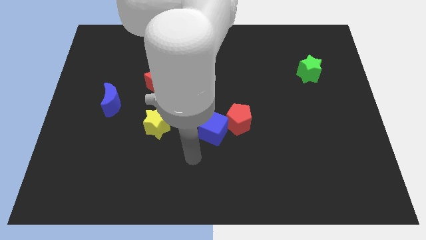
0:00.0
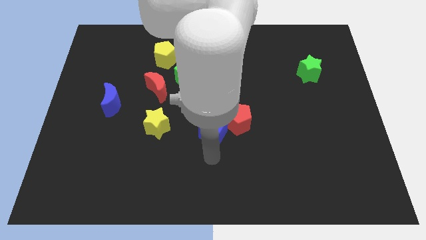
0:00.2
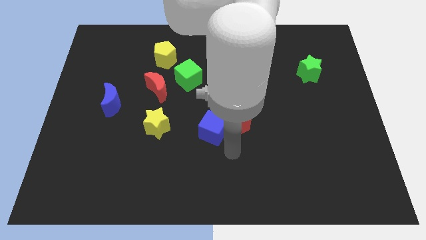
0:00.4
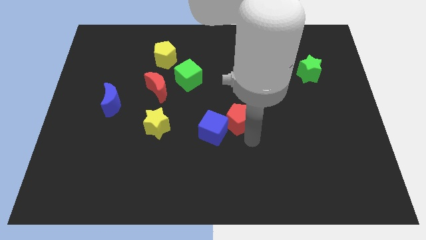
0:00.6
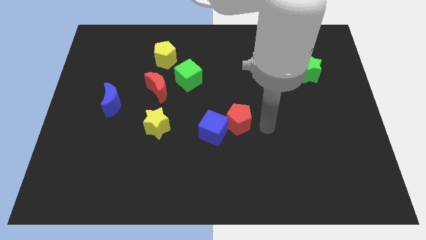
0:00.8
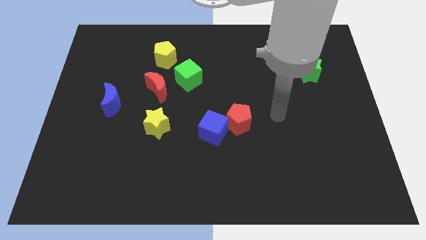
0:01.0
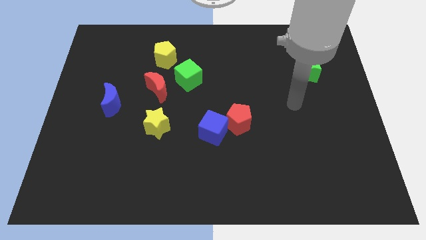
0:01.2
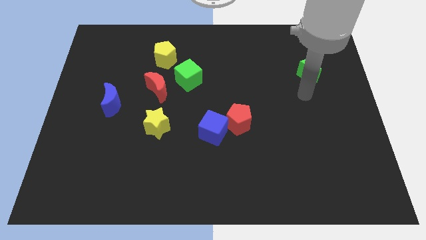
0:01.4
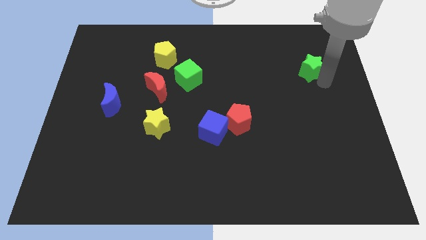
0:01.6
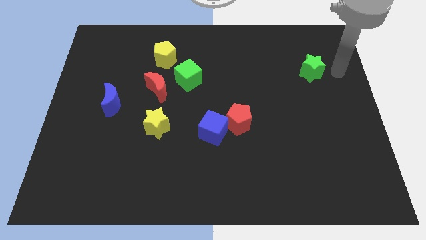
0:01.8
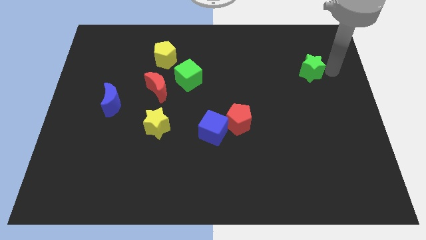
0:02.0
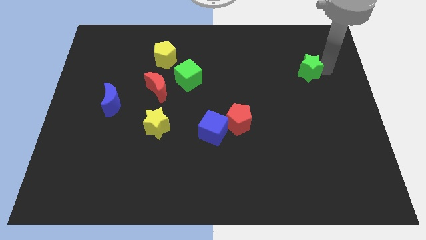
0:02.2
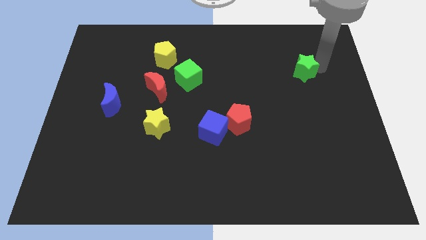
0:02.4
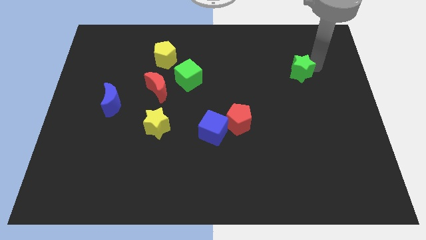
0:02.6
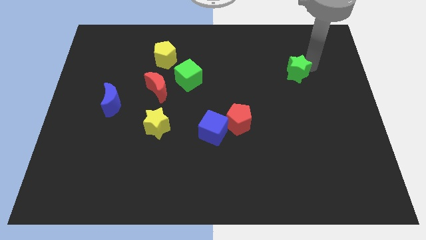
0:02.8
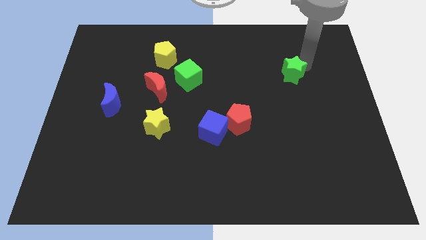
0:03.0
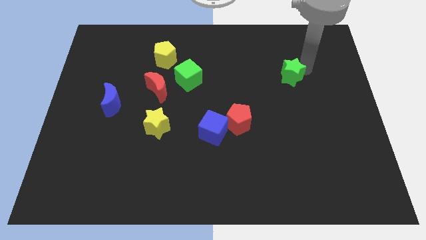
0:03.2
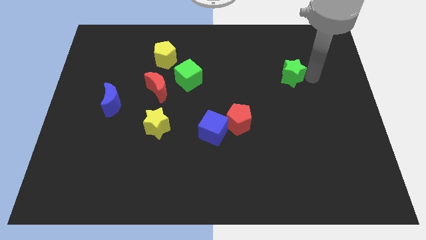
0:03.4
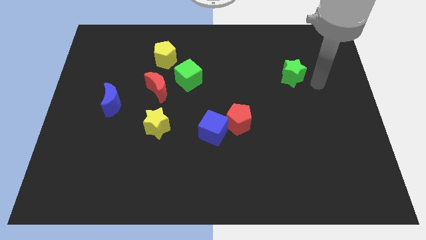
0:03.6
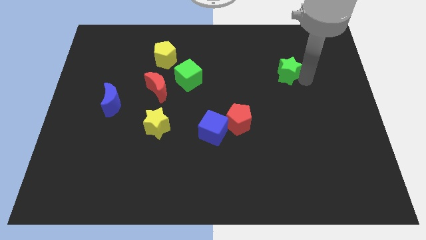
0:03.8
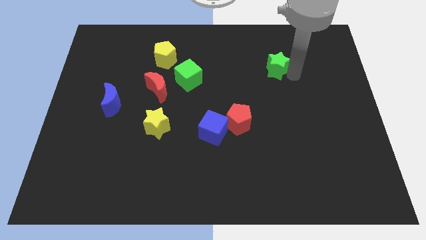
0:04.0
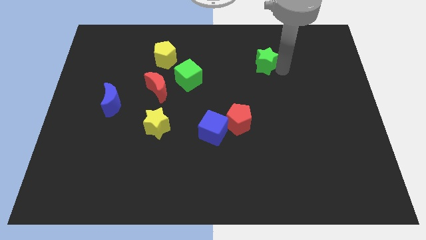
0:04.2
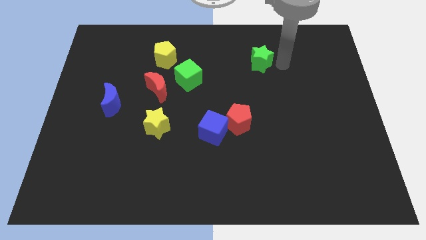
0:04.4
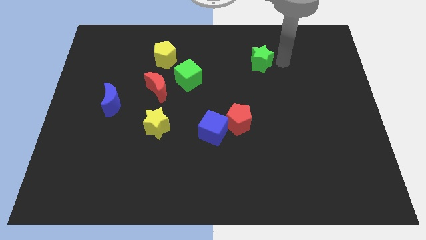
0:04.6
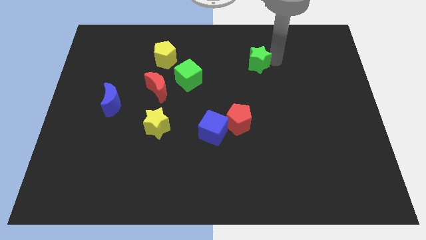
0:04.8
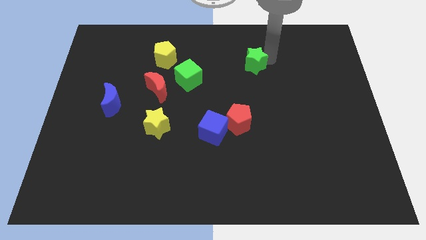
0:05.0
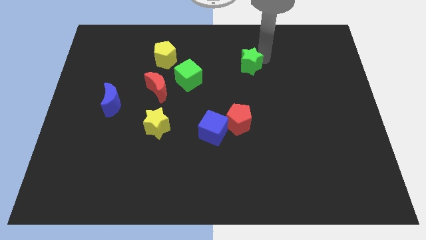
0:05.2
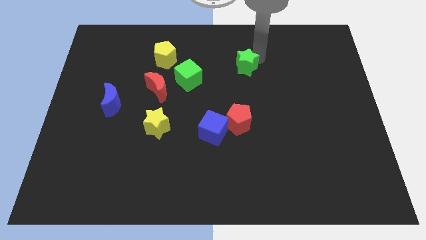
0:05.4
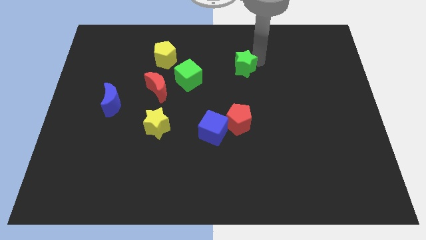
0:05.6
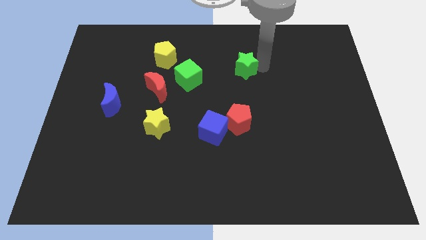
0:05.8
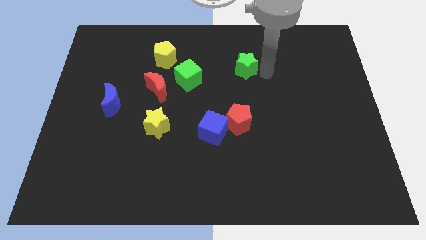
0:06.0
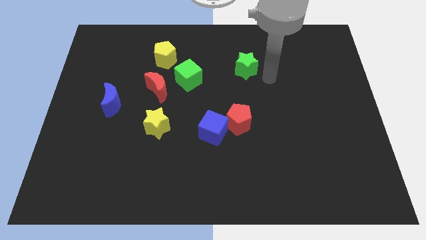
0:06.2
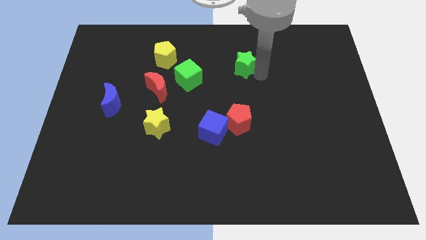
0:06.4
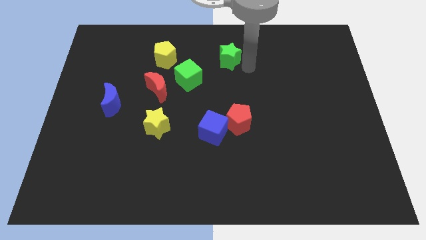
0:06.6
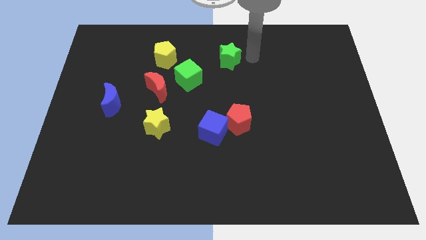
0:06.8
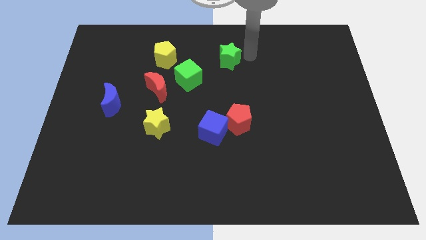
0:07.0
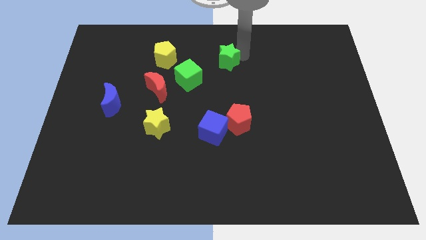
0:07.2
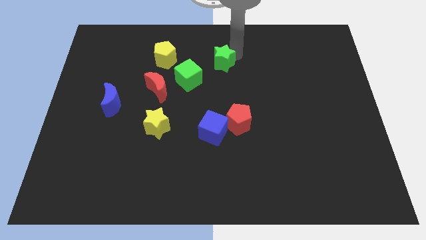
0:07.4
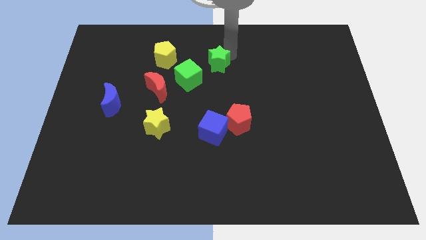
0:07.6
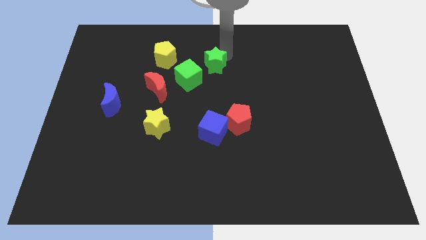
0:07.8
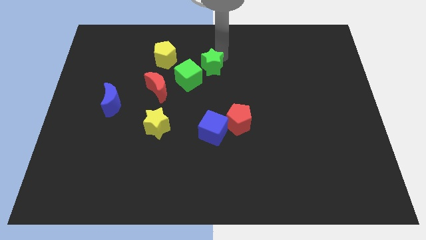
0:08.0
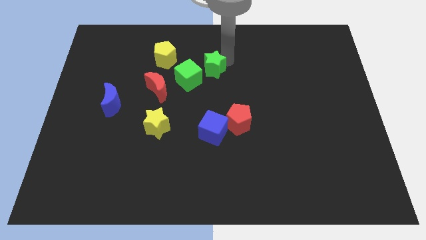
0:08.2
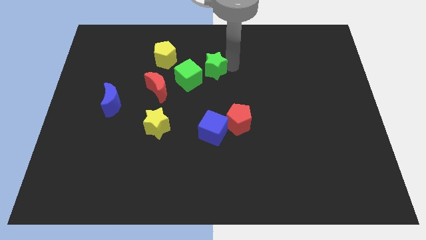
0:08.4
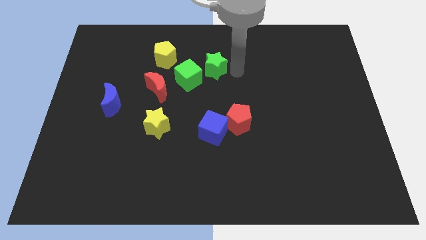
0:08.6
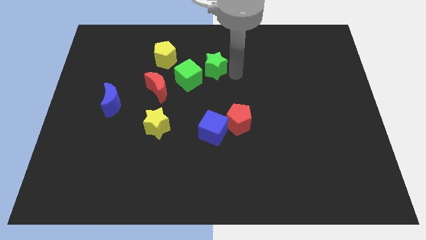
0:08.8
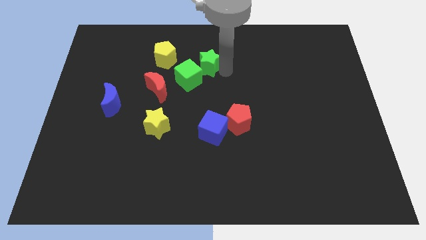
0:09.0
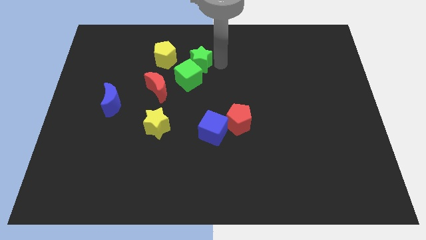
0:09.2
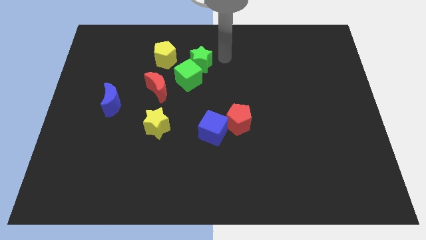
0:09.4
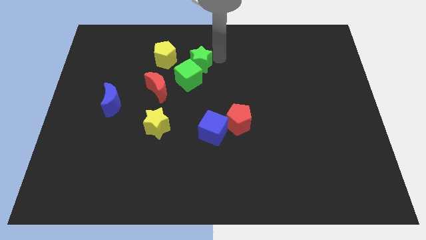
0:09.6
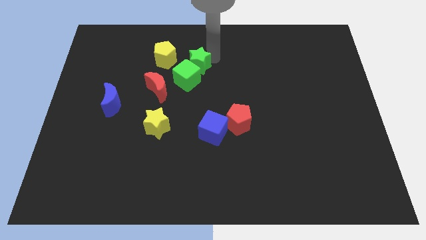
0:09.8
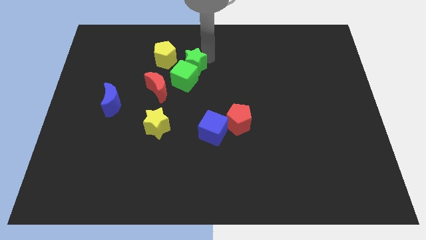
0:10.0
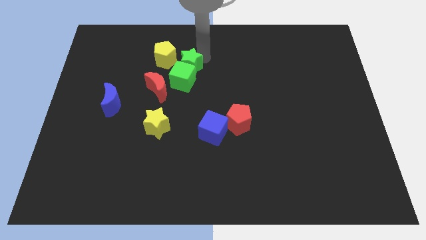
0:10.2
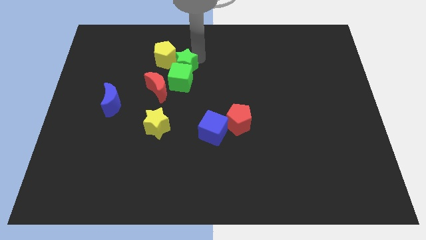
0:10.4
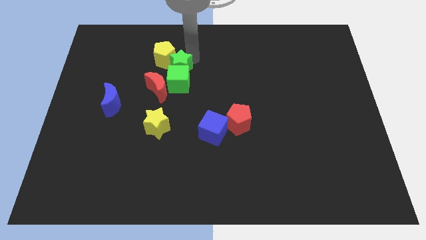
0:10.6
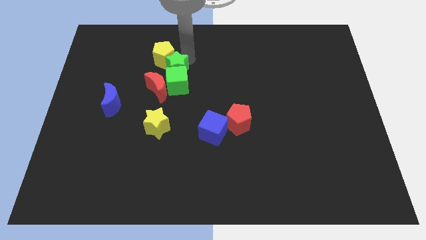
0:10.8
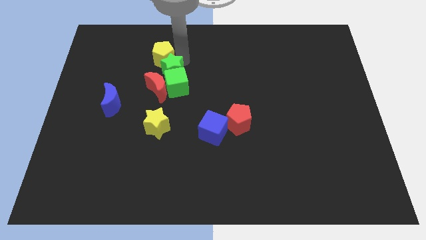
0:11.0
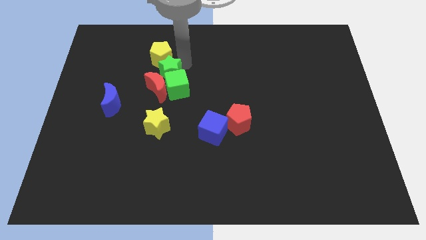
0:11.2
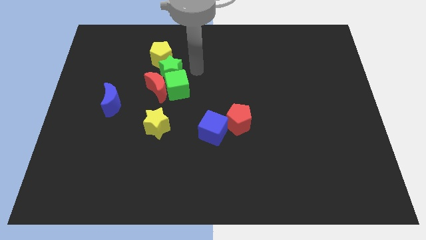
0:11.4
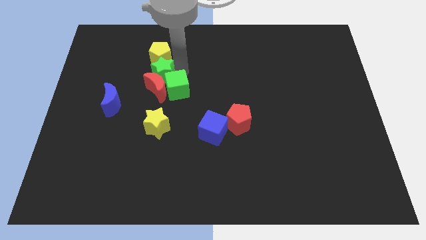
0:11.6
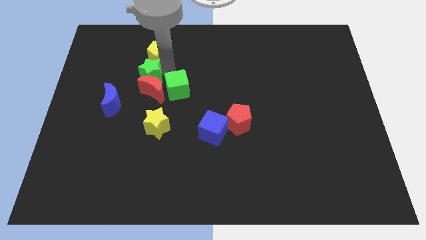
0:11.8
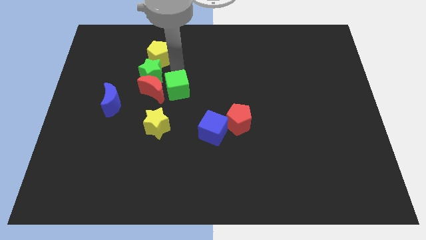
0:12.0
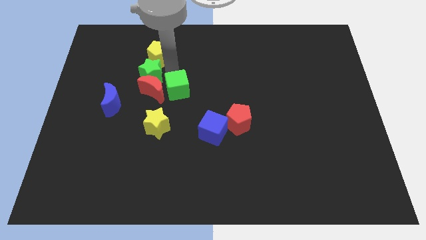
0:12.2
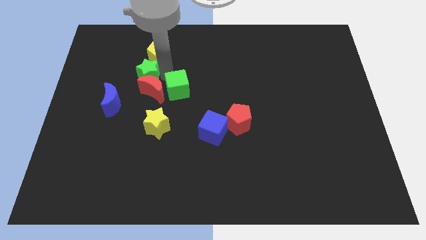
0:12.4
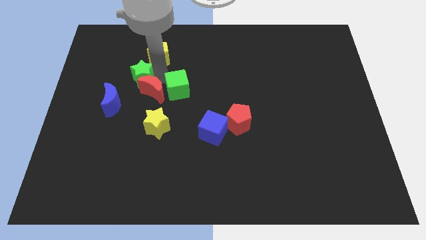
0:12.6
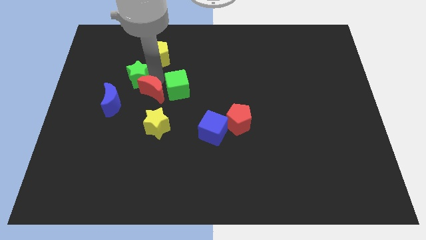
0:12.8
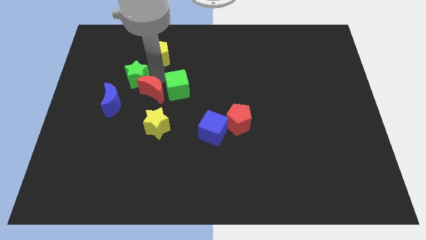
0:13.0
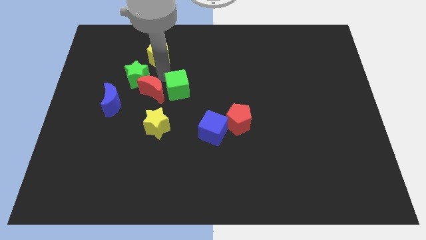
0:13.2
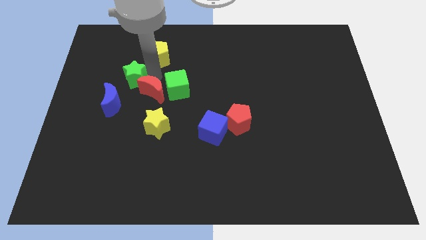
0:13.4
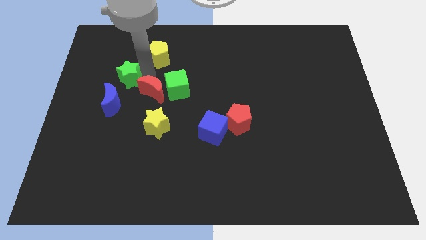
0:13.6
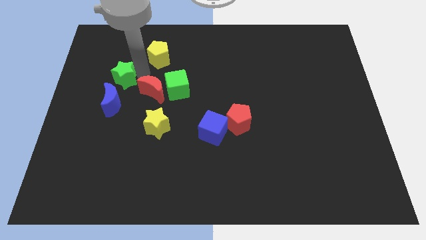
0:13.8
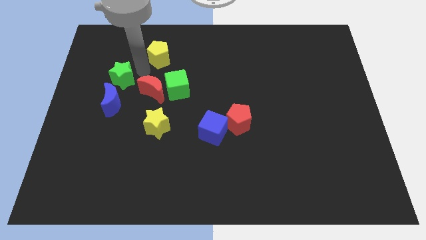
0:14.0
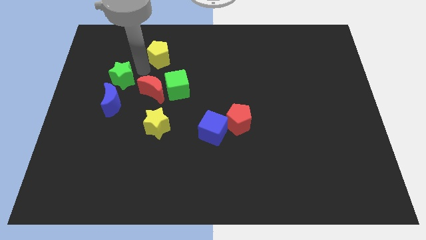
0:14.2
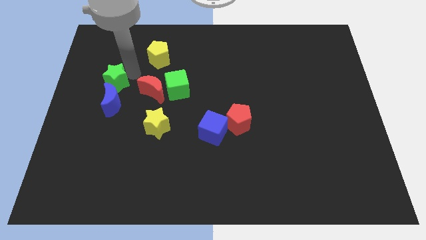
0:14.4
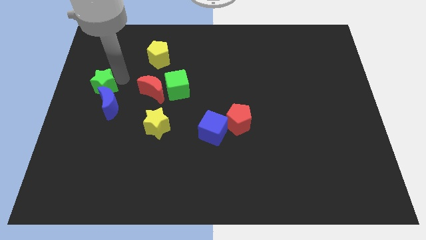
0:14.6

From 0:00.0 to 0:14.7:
move the green star to the center left
